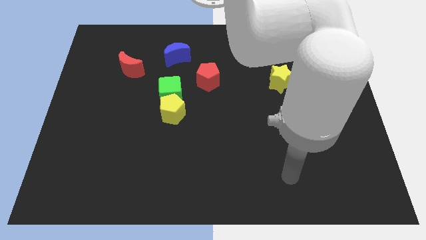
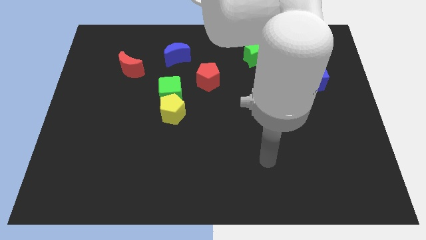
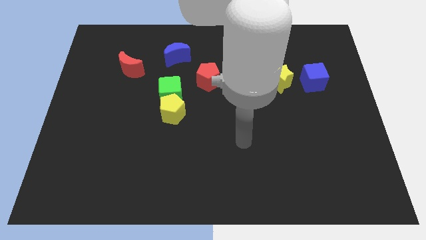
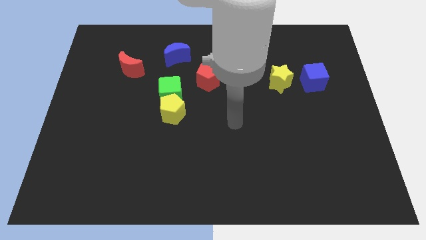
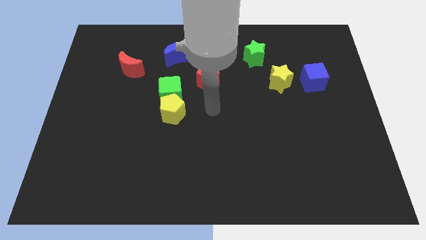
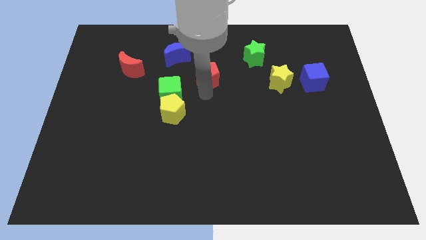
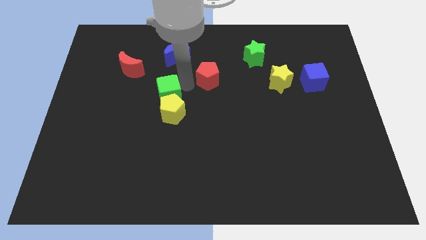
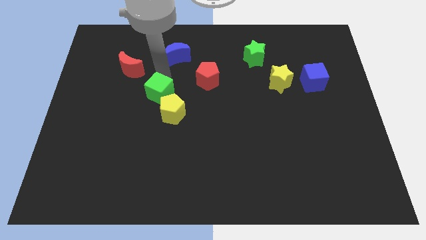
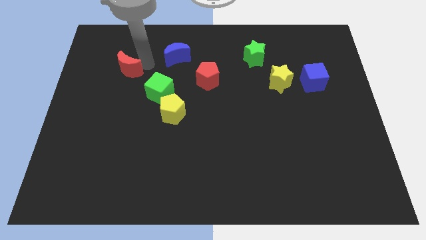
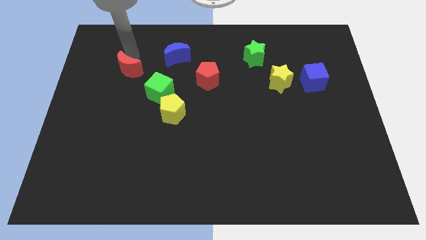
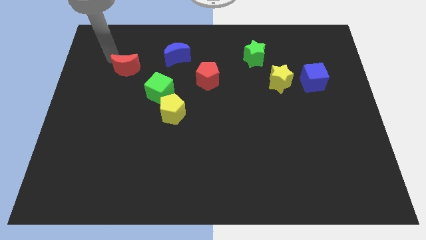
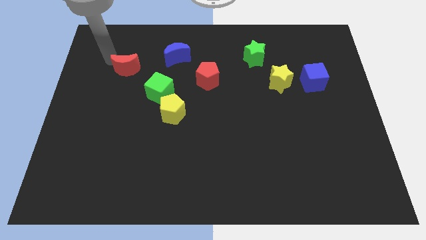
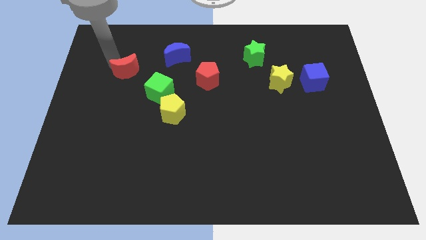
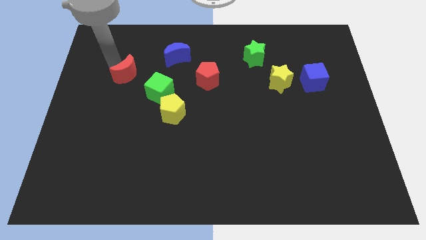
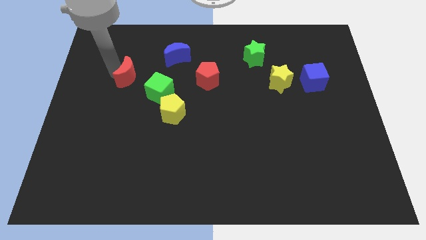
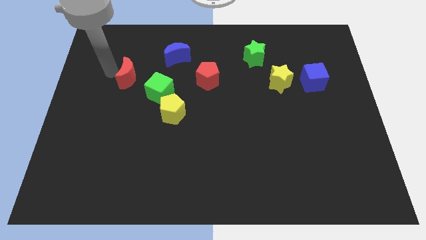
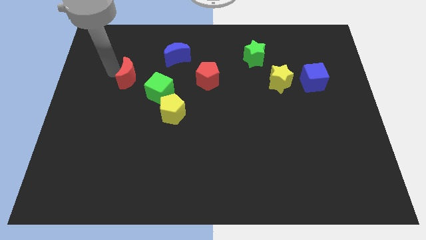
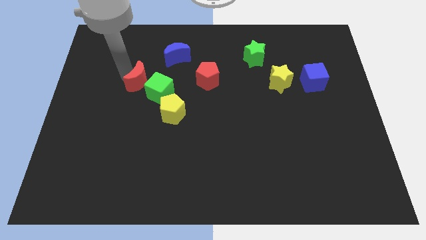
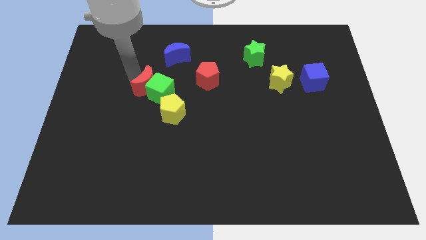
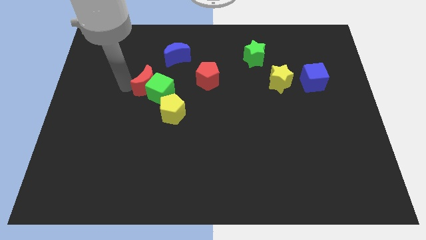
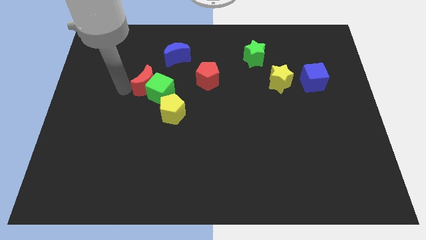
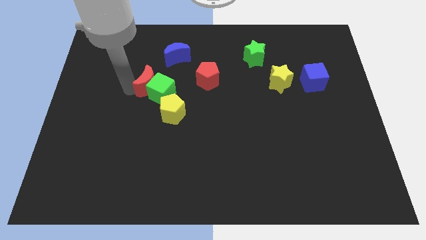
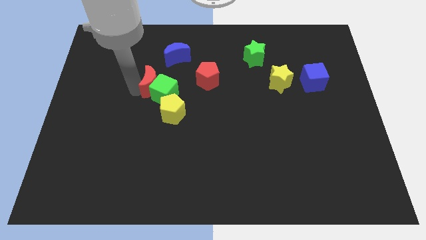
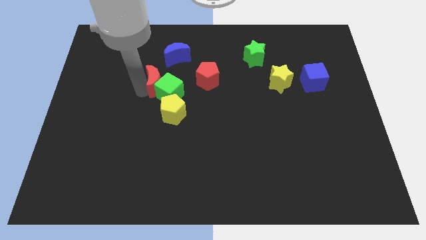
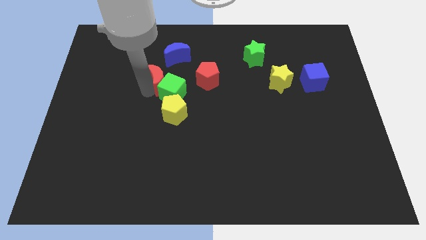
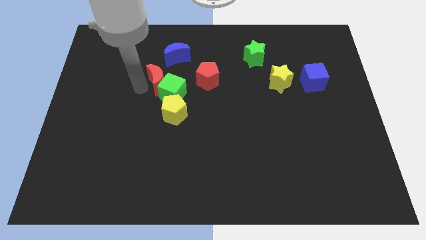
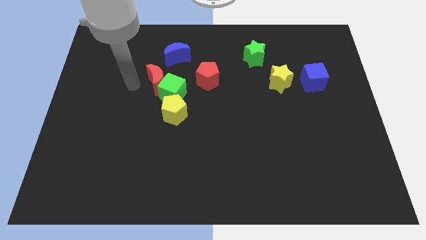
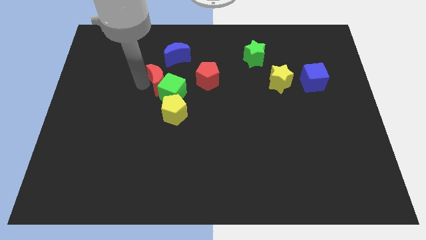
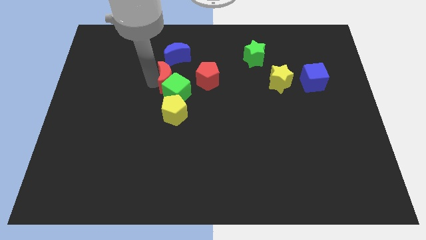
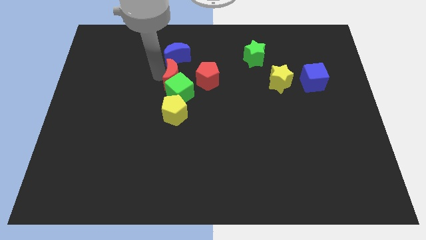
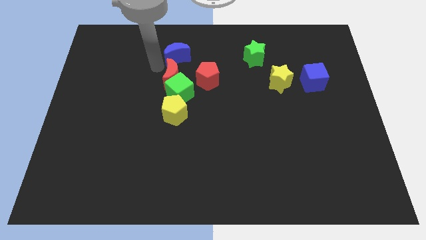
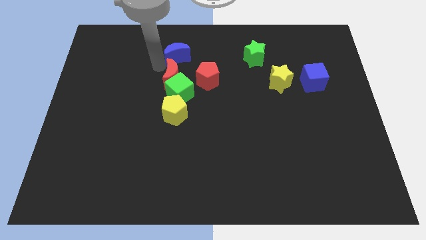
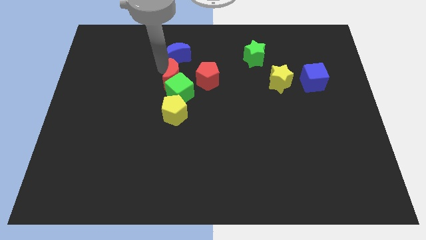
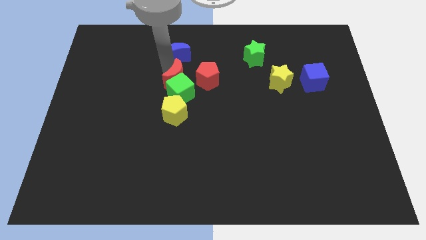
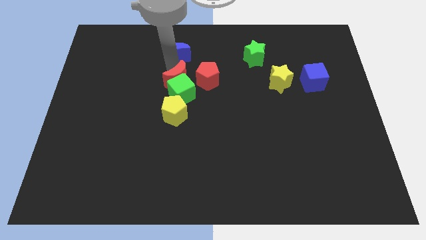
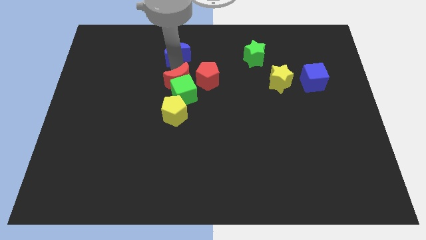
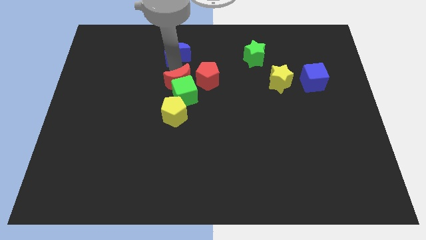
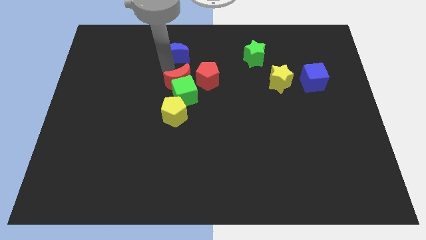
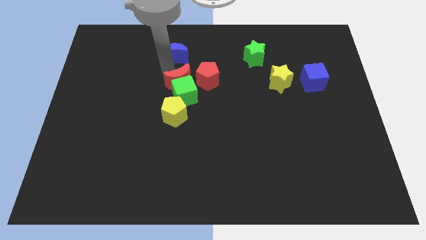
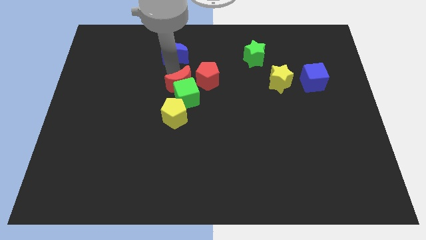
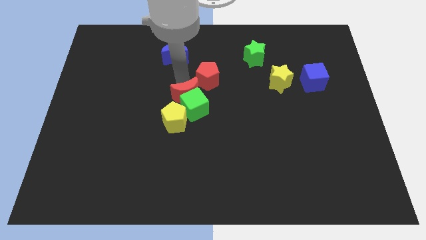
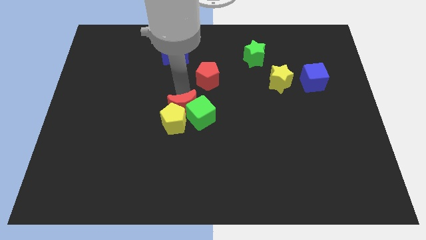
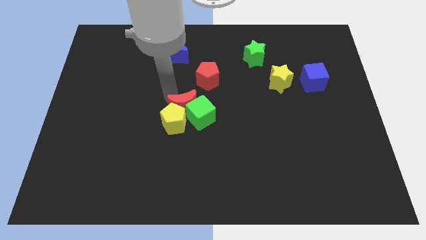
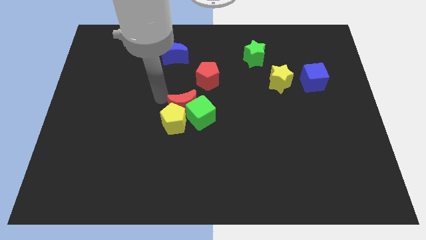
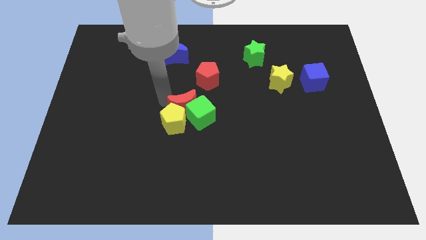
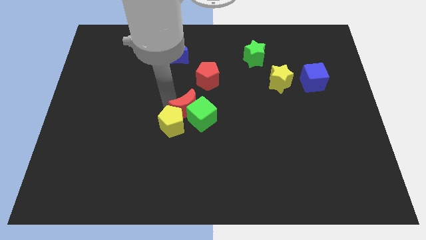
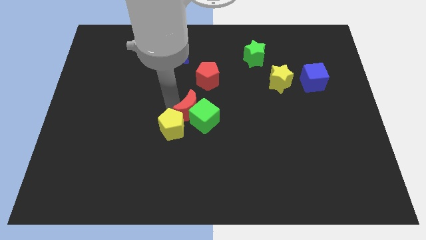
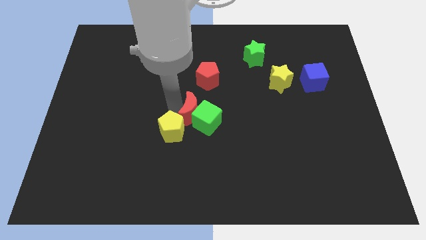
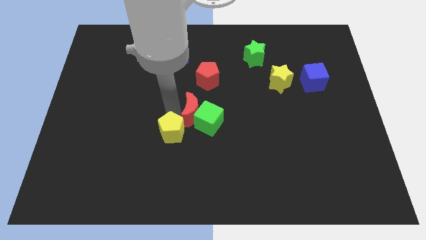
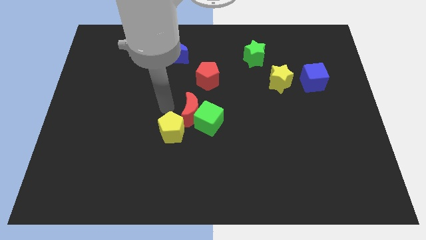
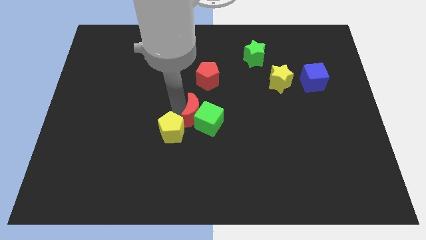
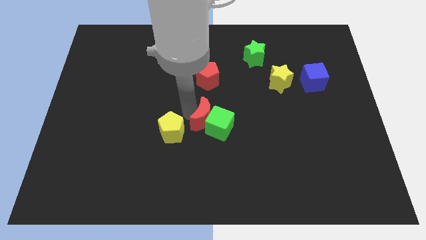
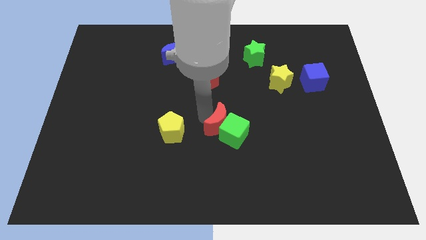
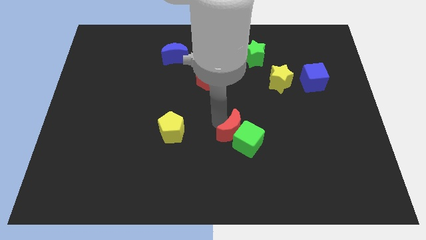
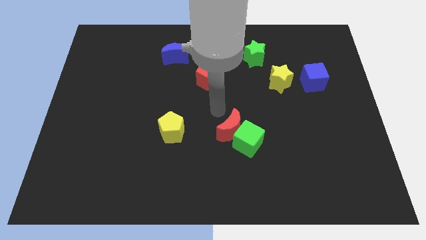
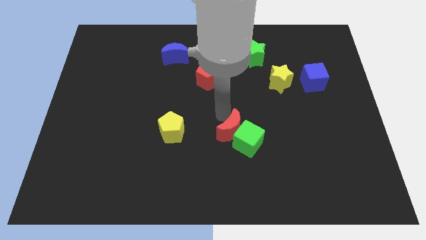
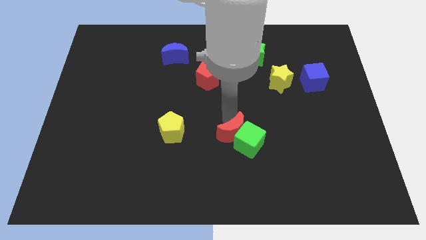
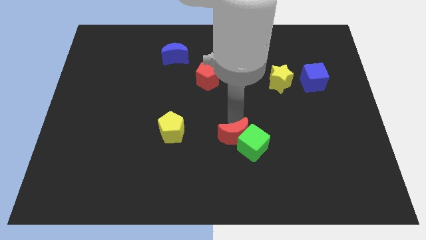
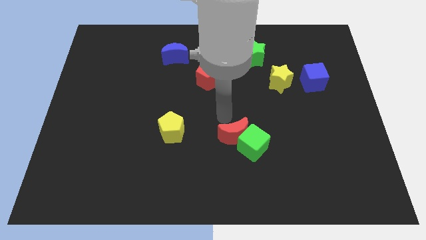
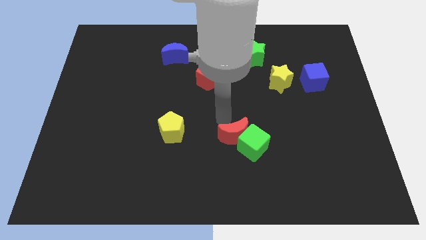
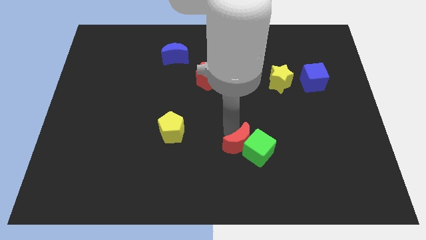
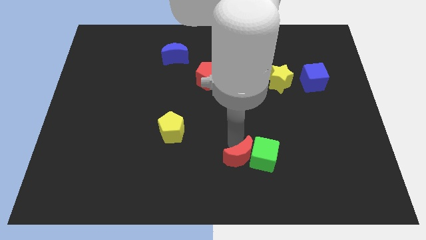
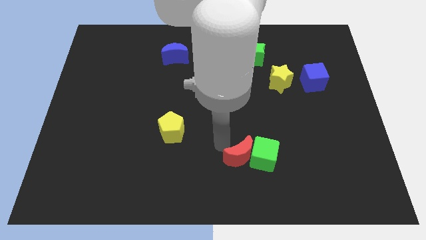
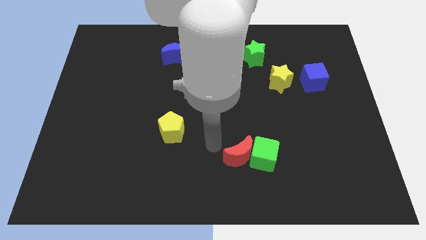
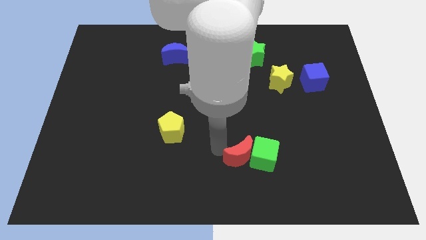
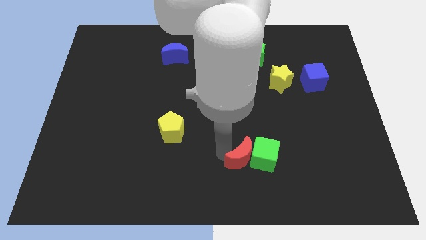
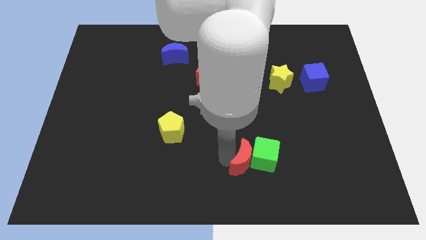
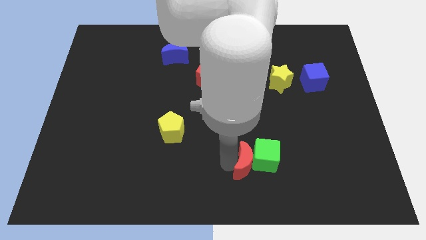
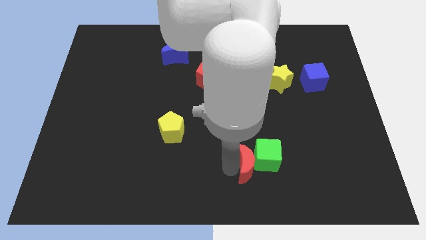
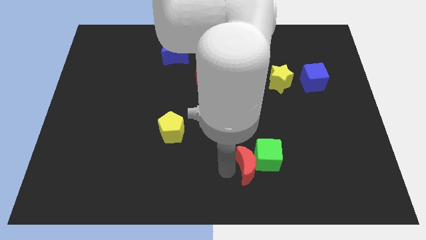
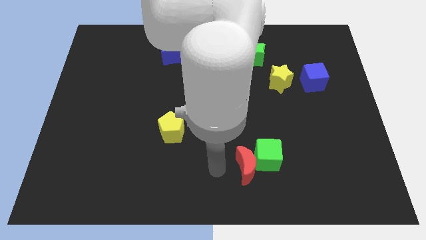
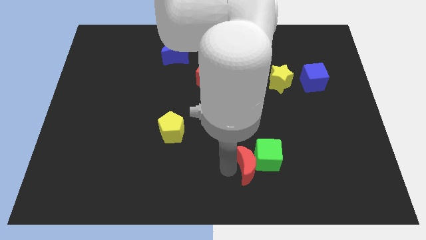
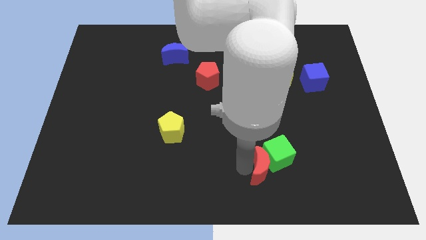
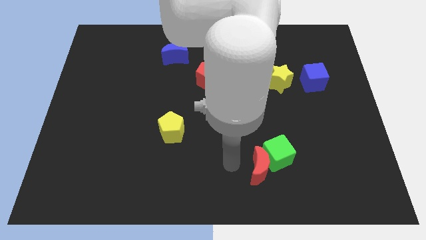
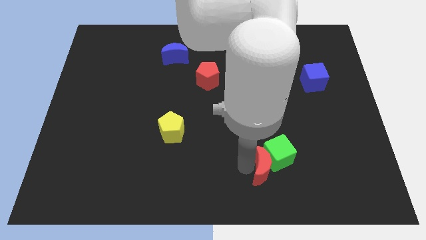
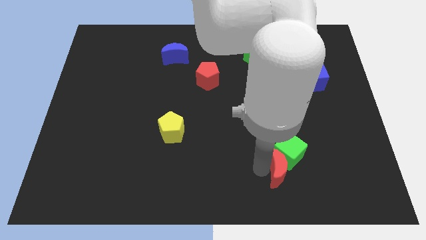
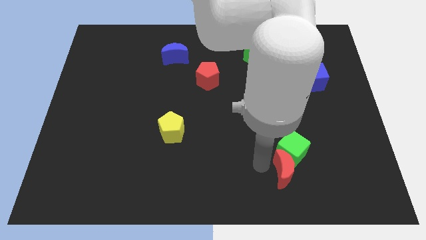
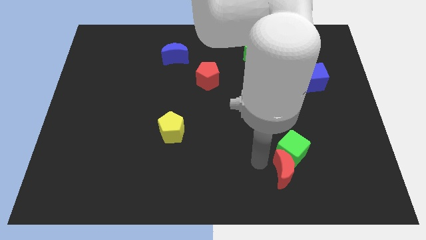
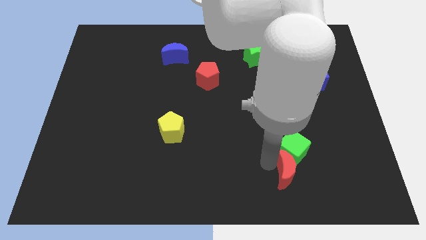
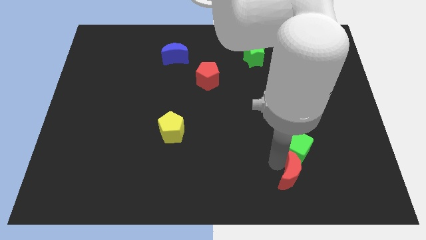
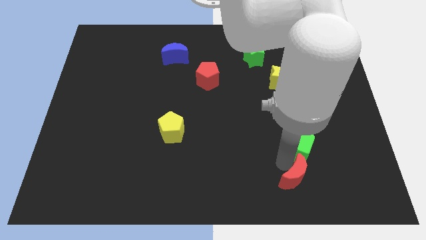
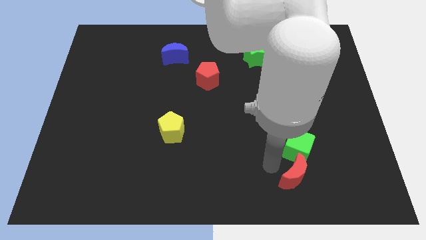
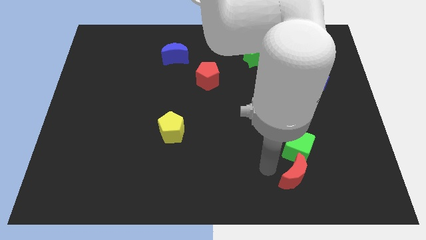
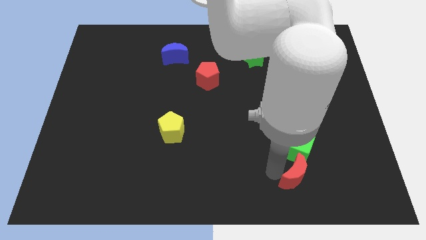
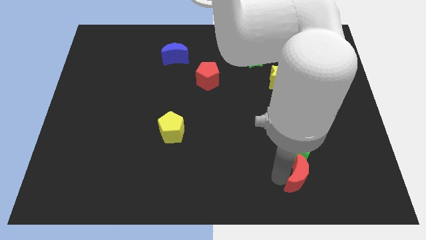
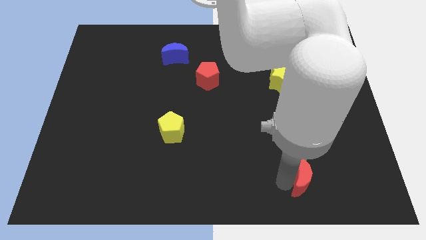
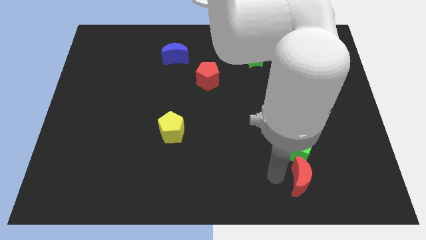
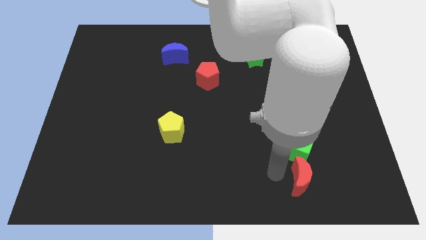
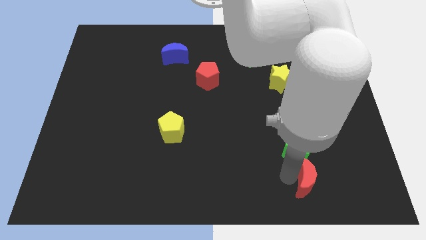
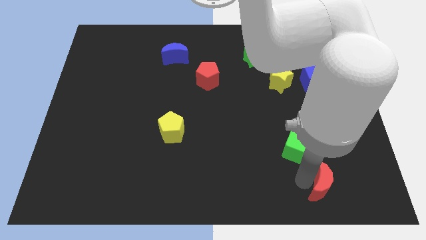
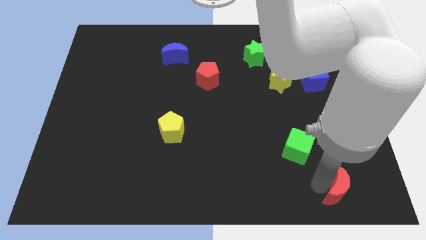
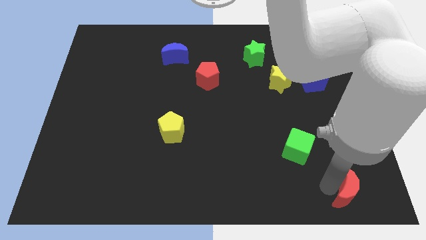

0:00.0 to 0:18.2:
slide the red moon to the bottom right of the board
